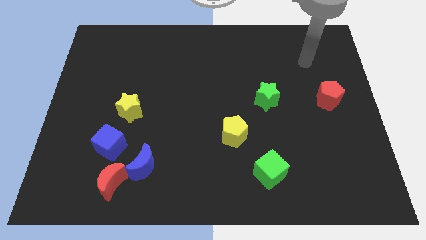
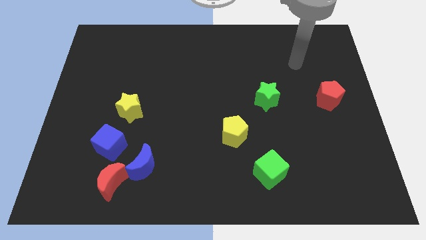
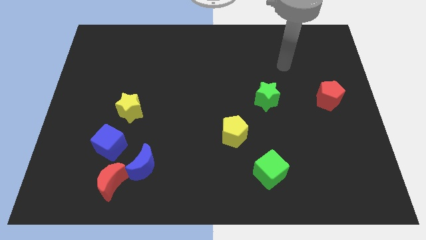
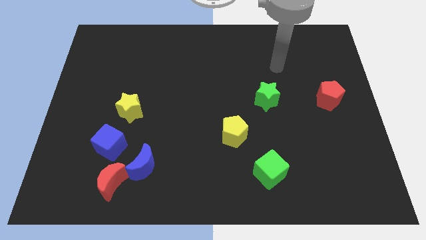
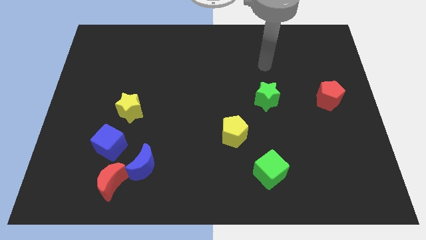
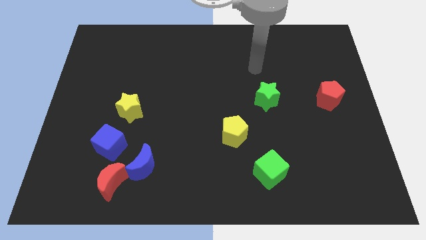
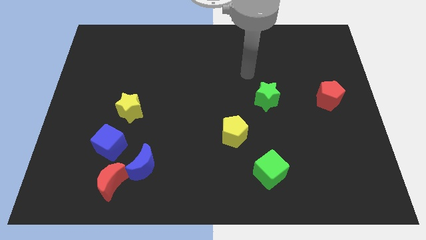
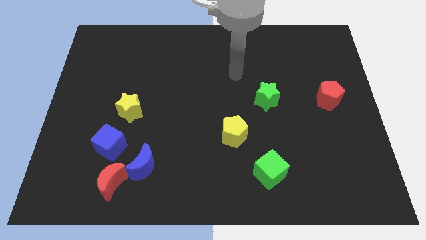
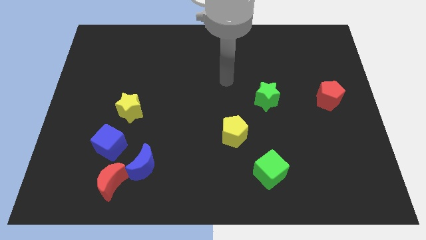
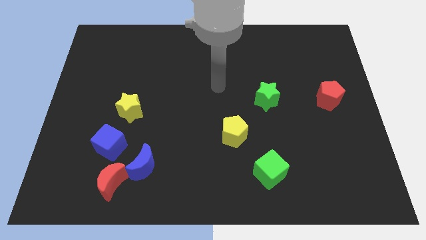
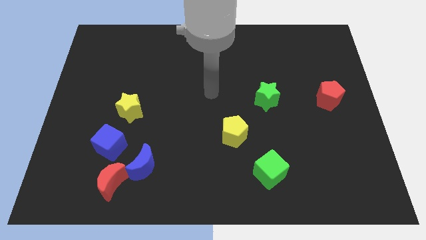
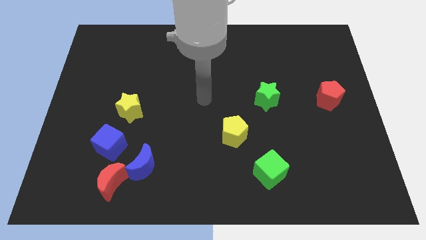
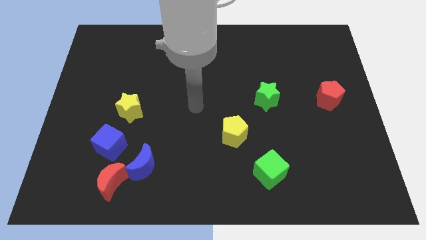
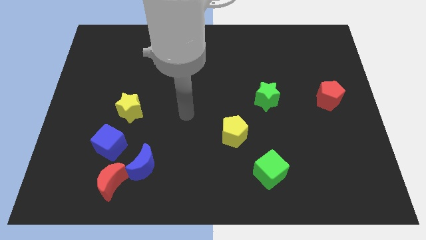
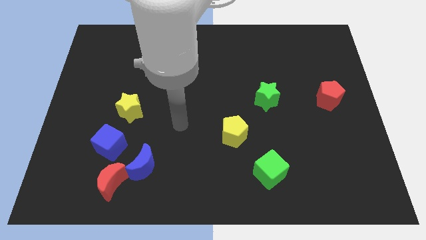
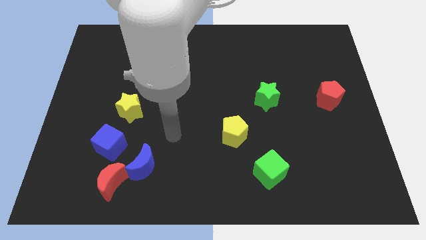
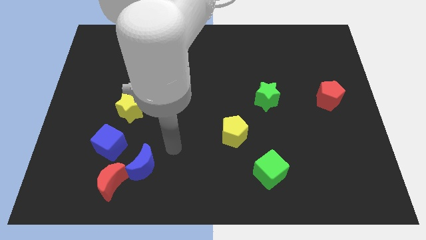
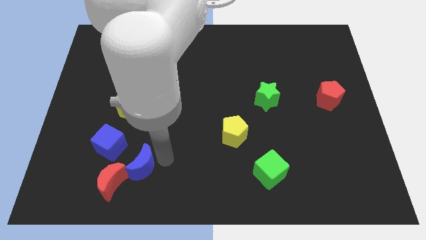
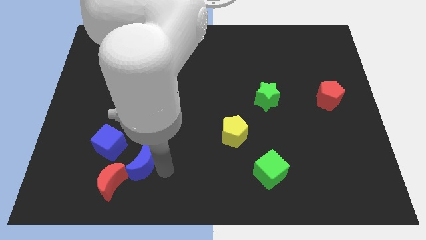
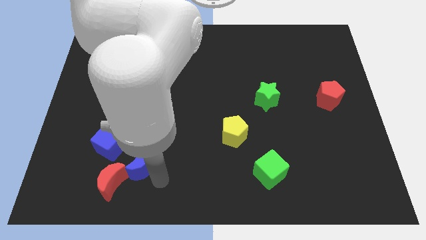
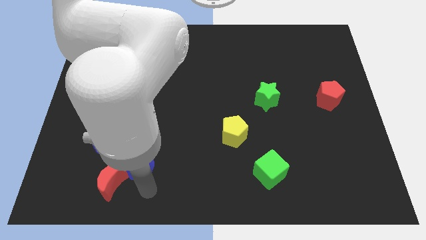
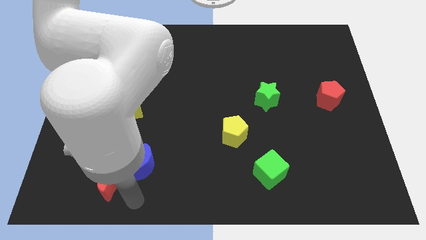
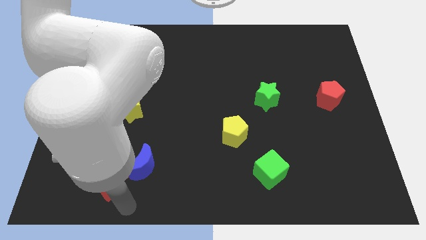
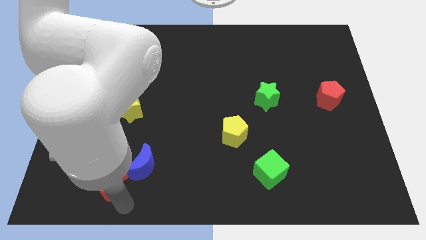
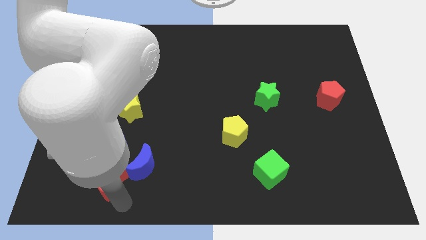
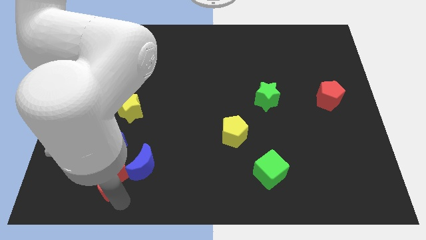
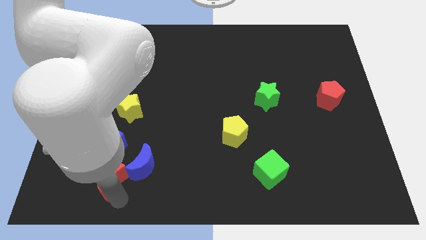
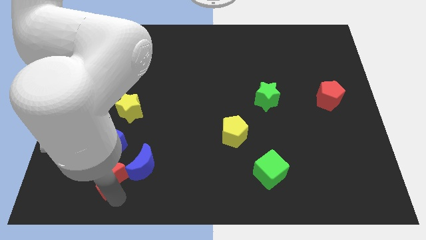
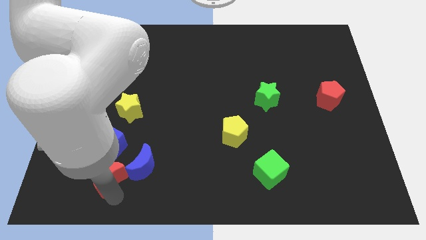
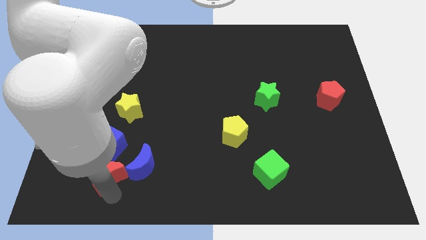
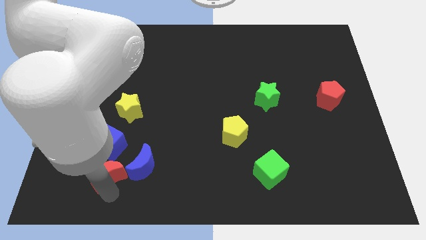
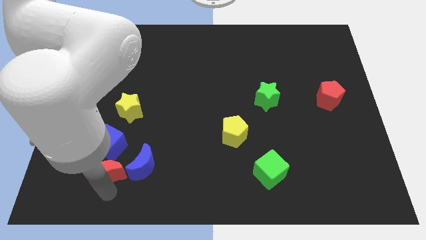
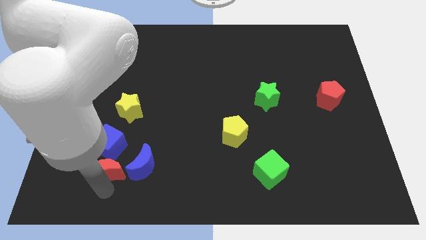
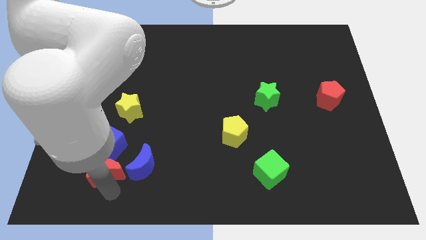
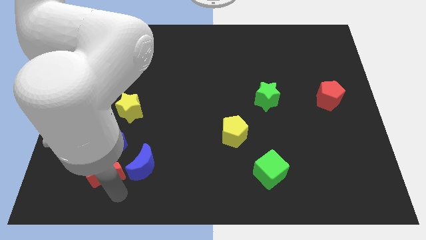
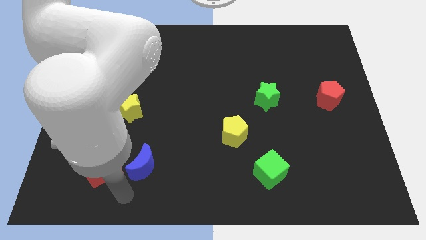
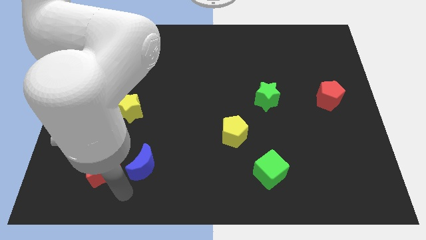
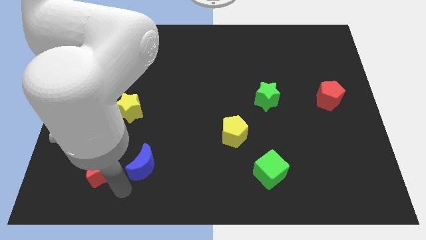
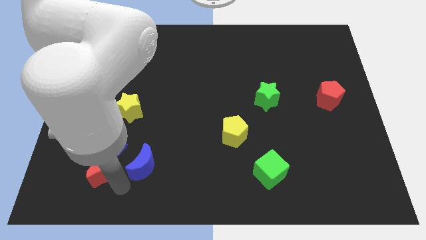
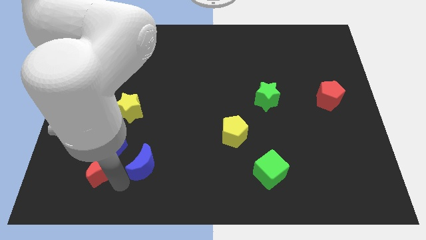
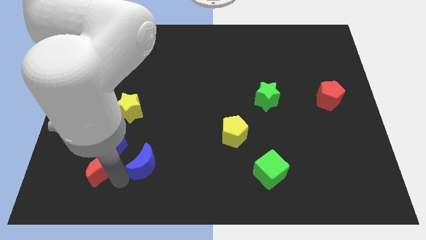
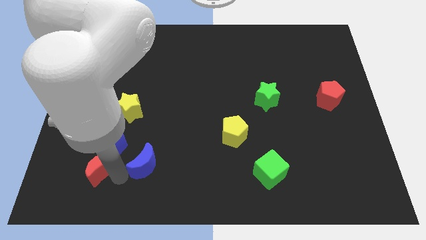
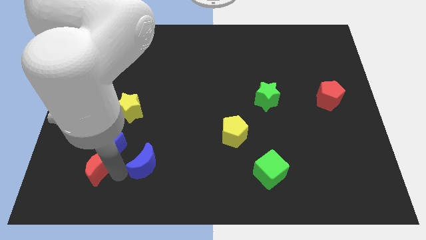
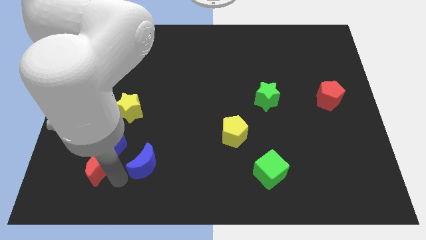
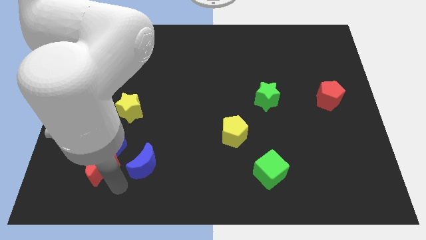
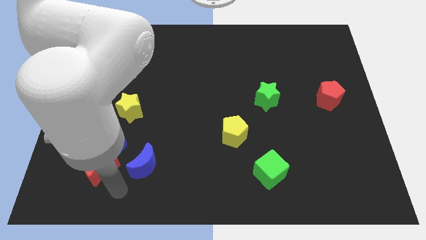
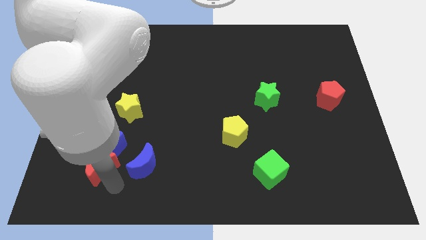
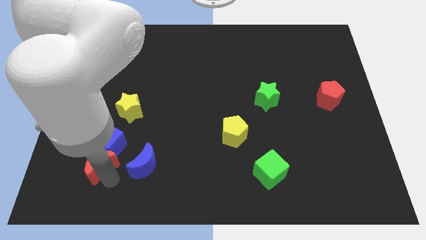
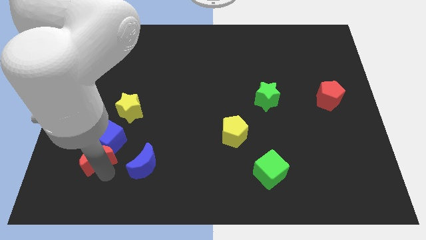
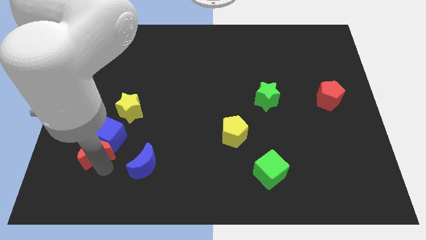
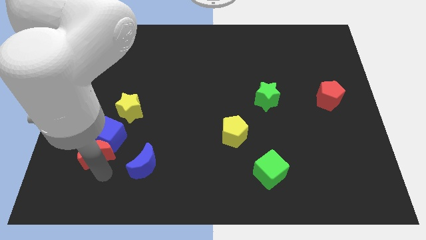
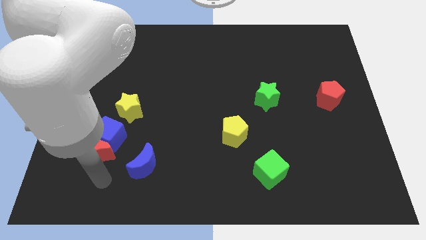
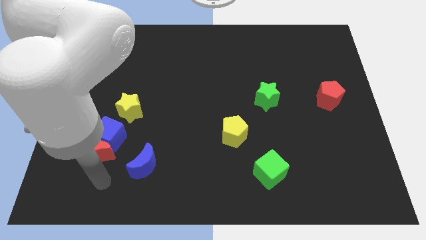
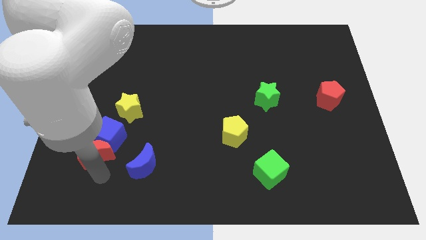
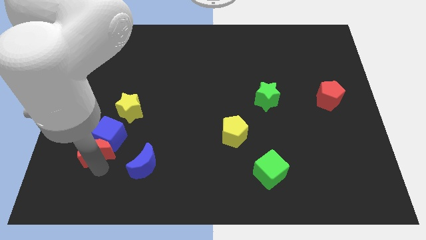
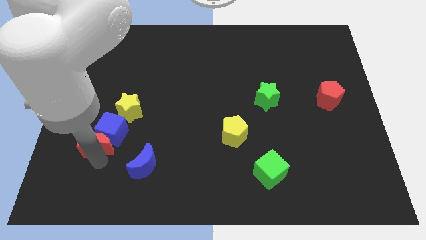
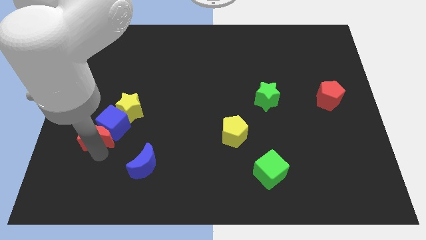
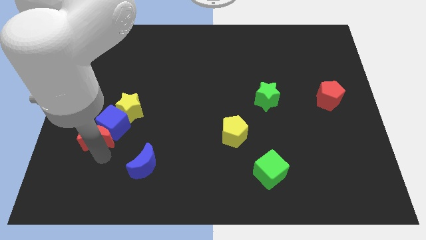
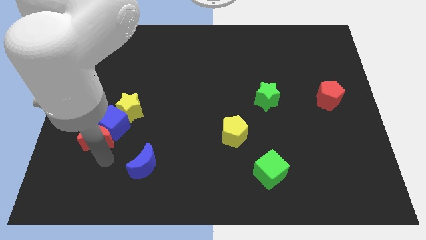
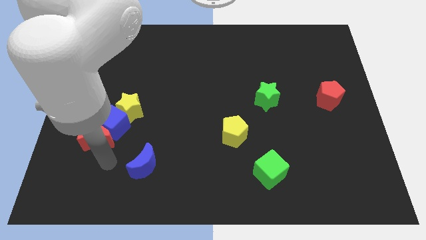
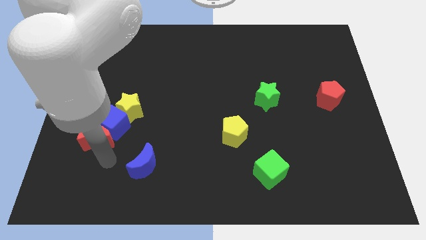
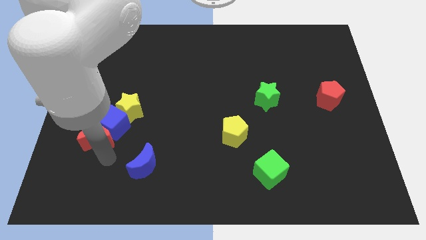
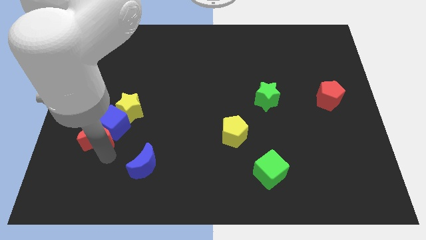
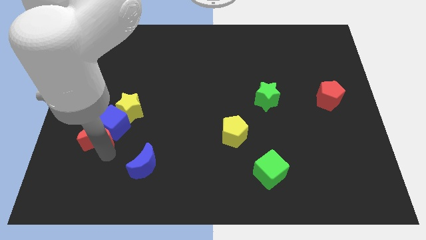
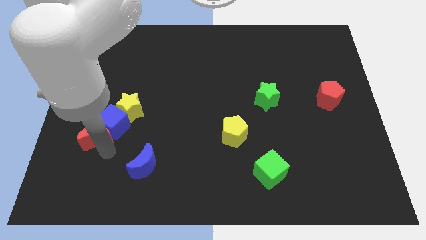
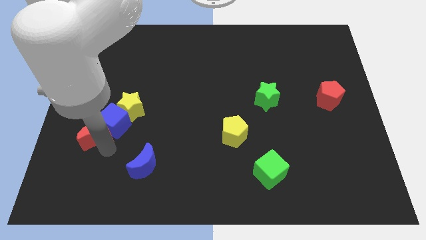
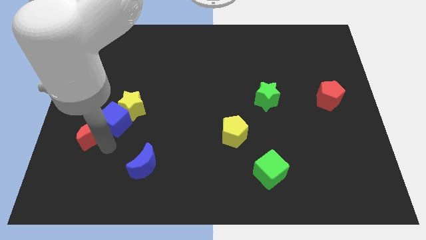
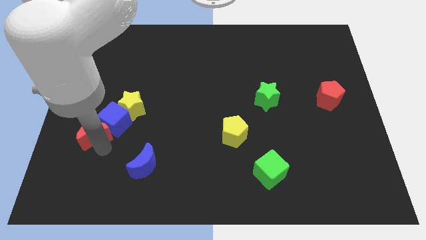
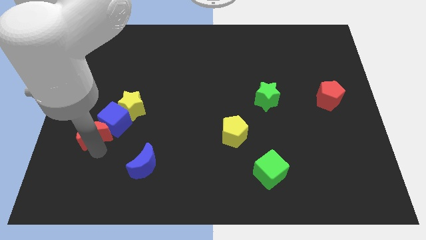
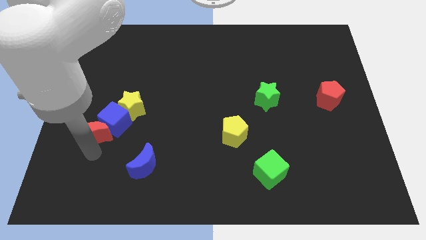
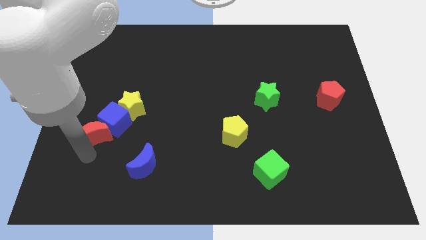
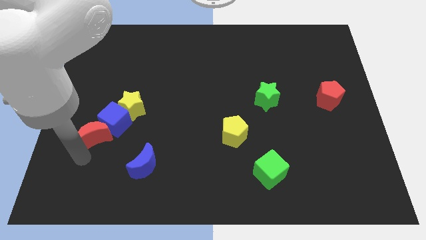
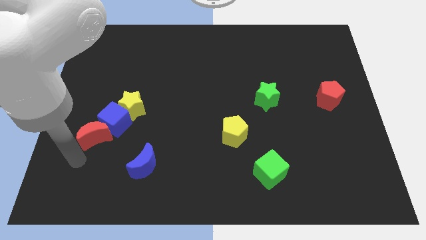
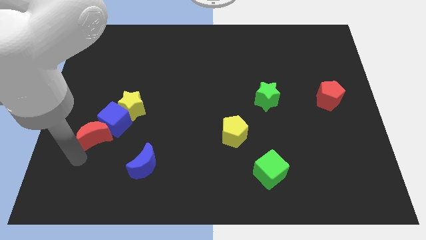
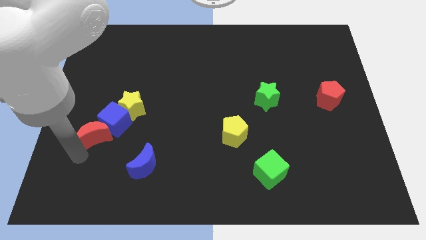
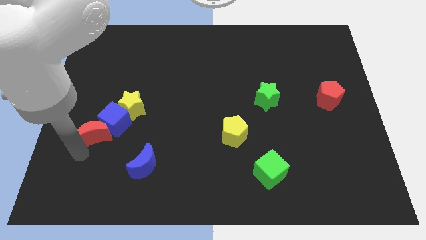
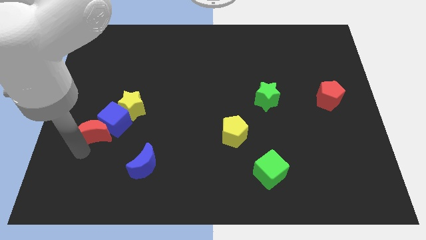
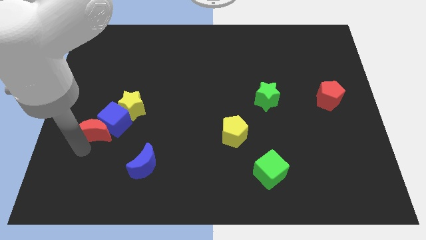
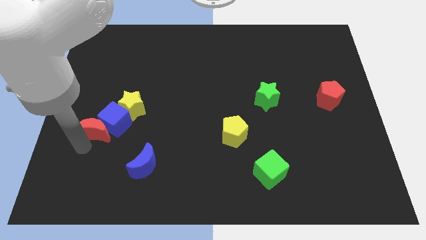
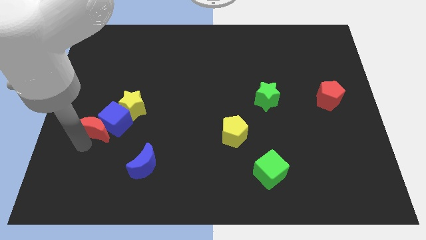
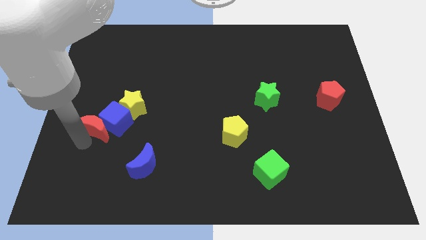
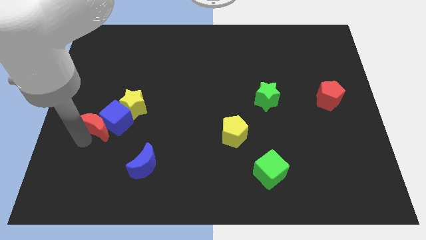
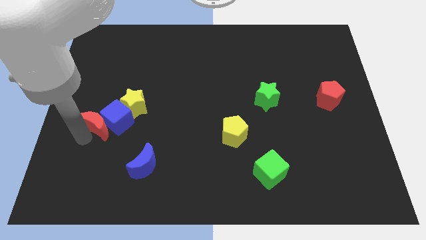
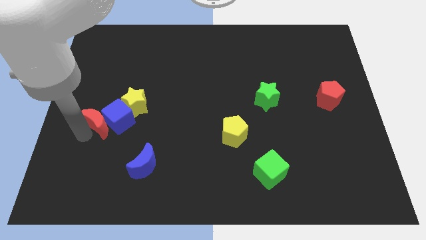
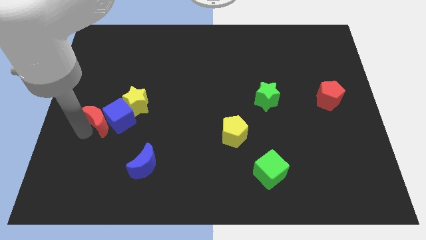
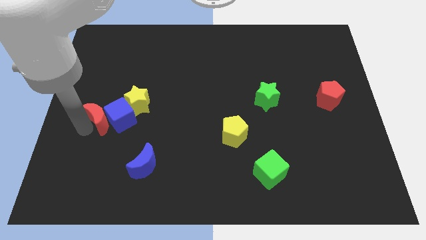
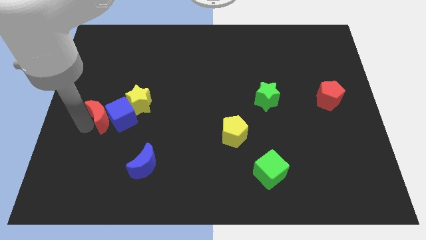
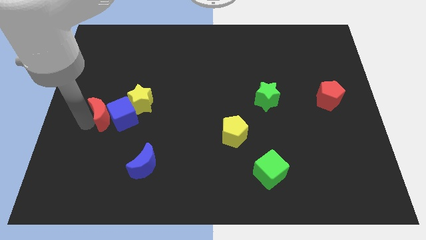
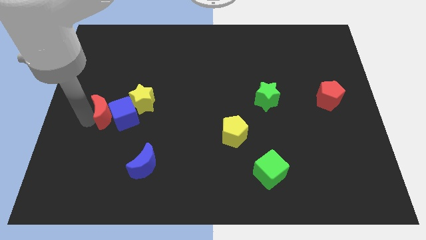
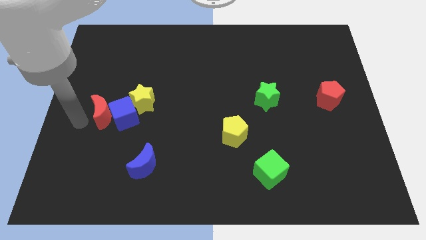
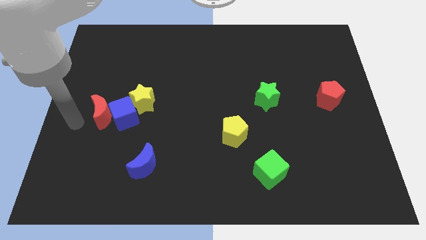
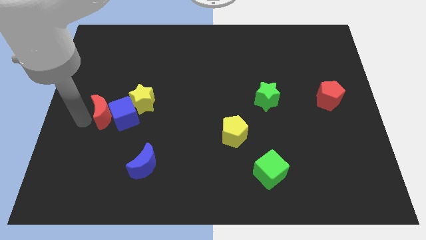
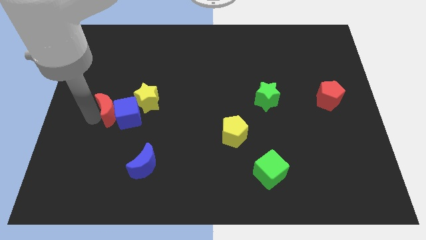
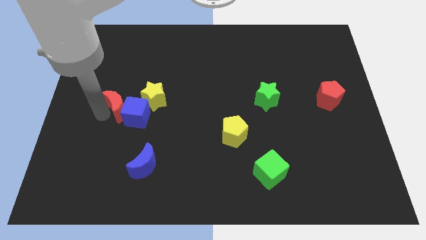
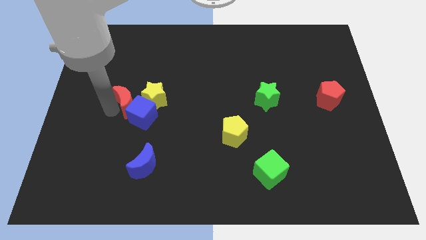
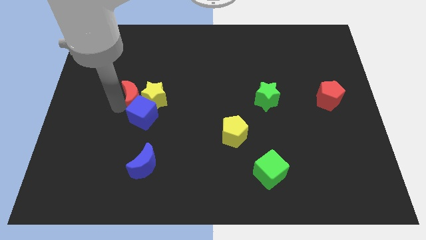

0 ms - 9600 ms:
push the red moon next to the yellow star
